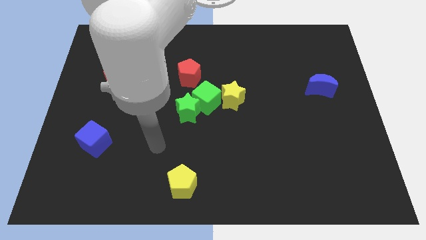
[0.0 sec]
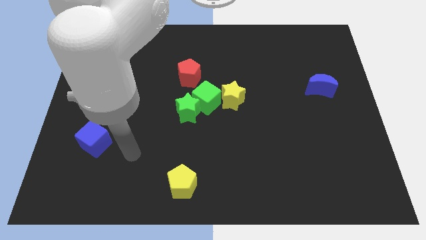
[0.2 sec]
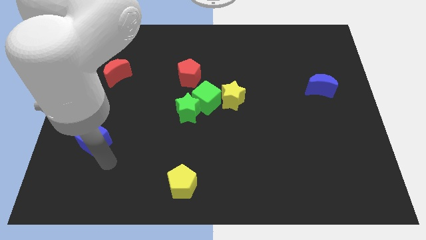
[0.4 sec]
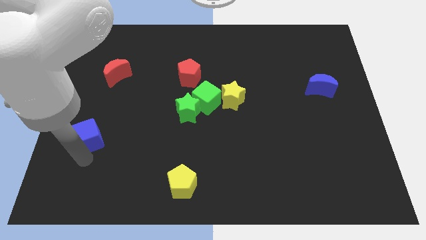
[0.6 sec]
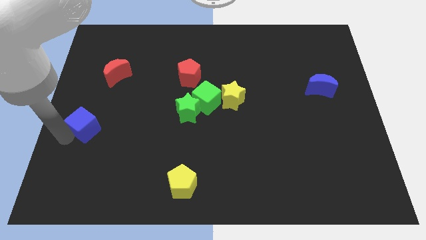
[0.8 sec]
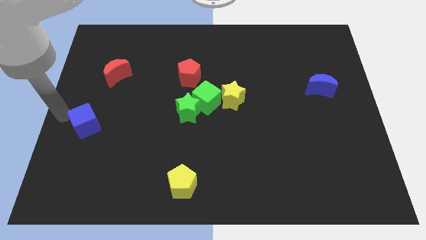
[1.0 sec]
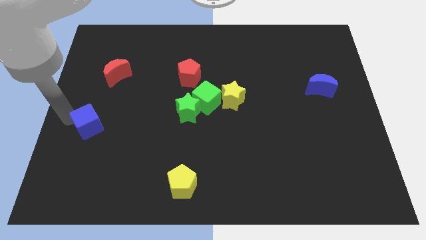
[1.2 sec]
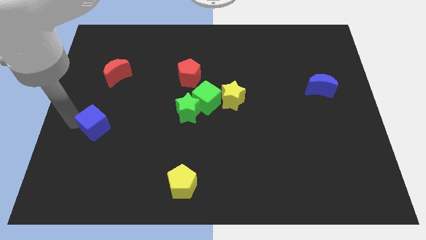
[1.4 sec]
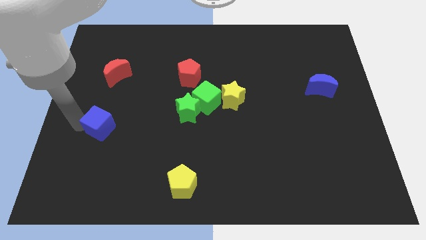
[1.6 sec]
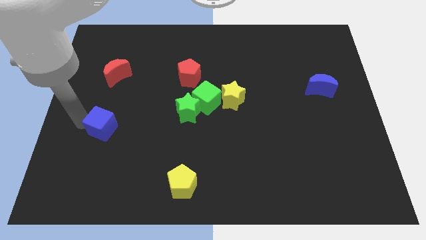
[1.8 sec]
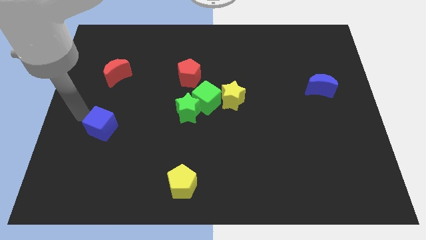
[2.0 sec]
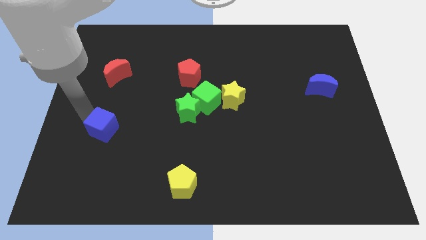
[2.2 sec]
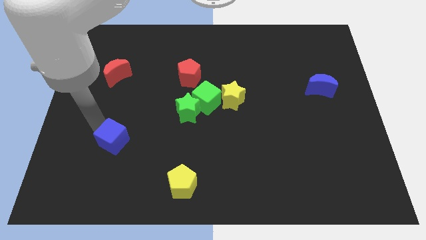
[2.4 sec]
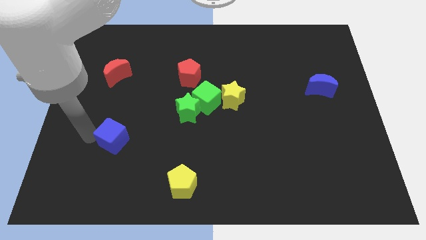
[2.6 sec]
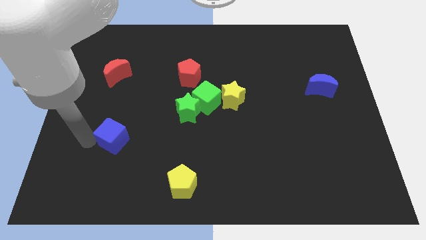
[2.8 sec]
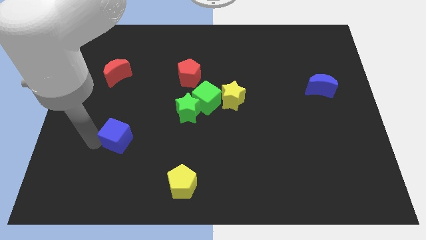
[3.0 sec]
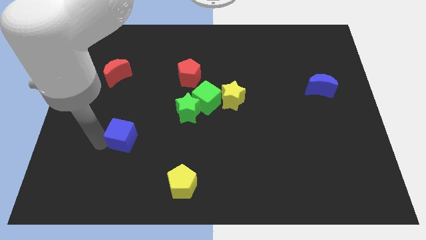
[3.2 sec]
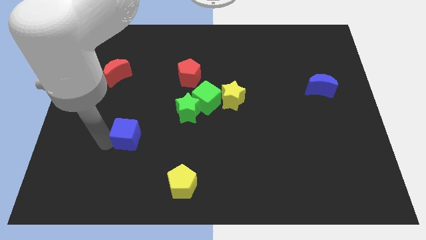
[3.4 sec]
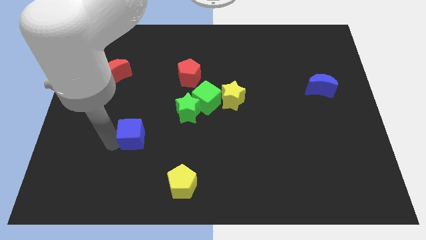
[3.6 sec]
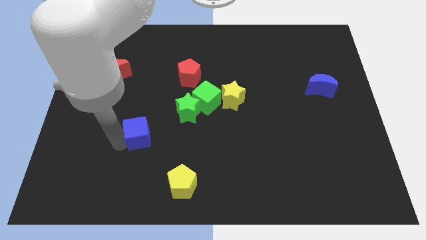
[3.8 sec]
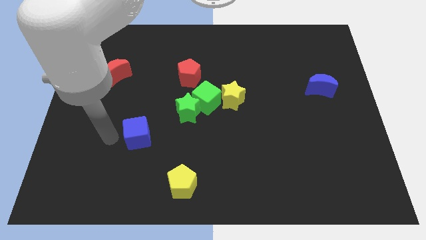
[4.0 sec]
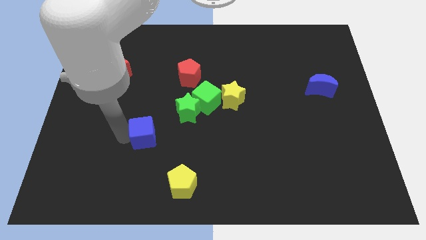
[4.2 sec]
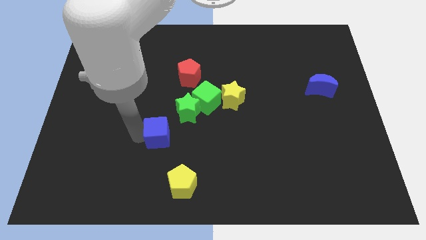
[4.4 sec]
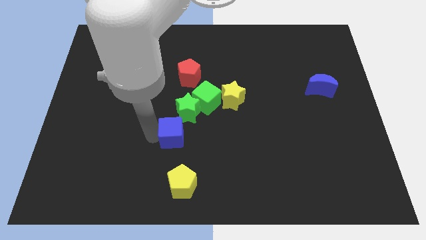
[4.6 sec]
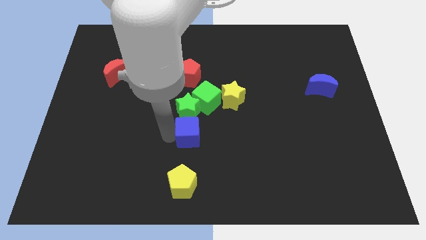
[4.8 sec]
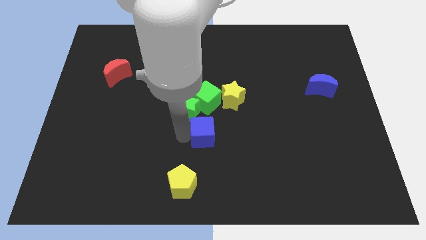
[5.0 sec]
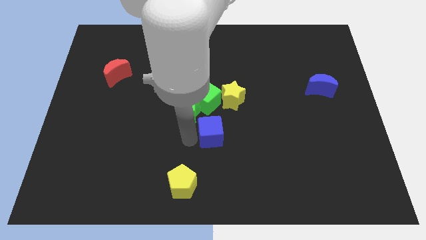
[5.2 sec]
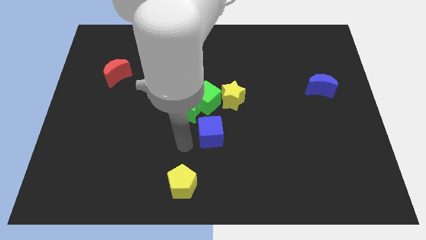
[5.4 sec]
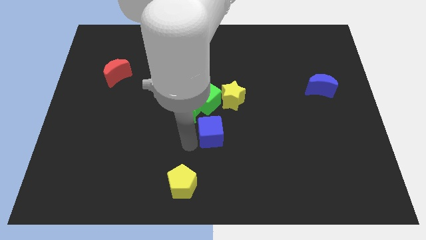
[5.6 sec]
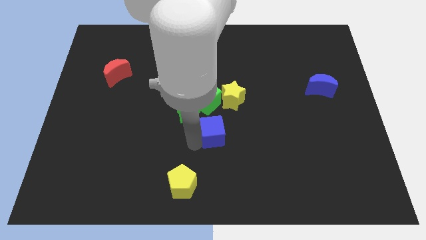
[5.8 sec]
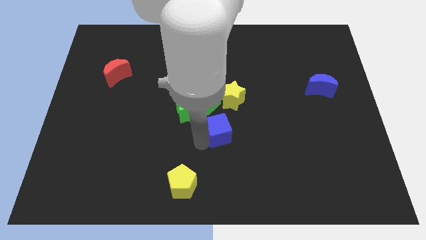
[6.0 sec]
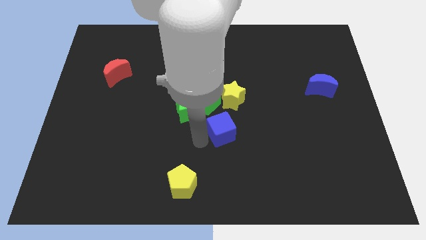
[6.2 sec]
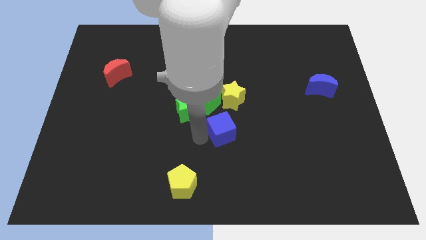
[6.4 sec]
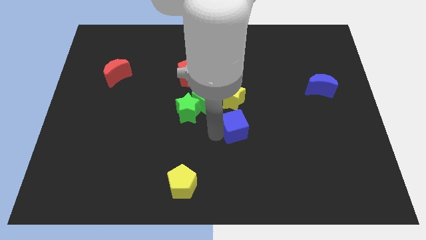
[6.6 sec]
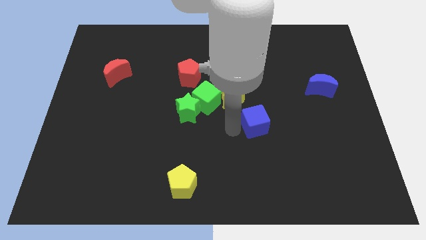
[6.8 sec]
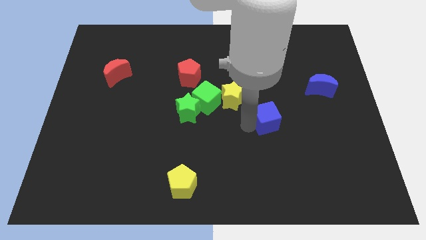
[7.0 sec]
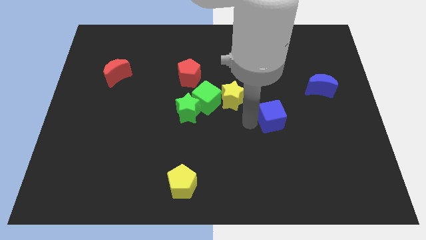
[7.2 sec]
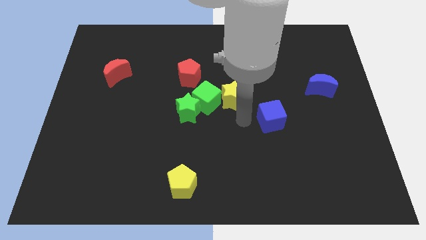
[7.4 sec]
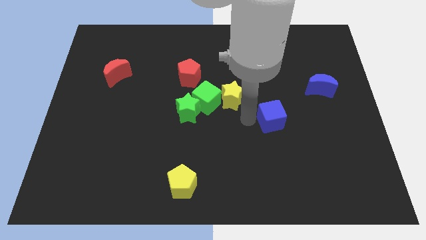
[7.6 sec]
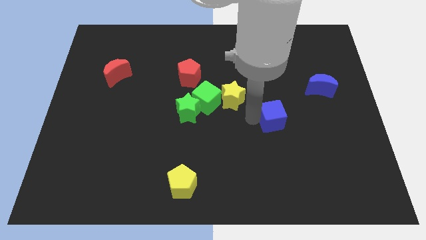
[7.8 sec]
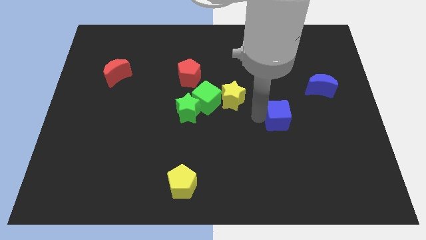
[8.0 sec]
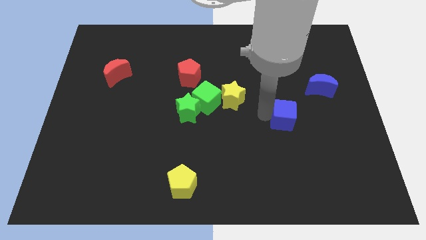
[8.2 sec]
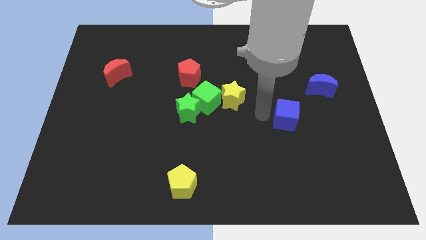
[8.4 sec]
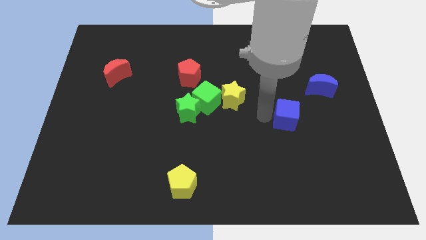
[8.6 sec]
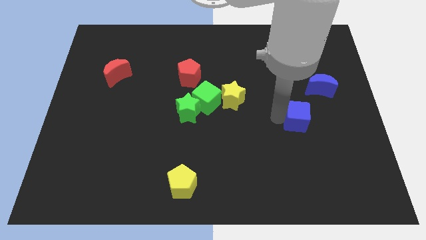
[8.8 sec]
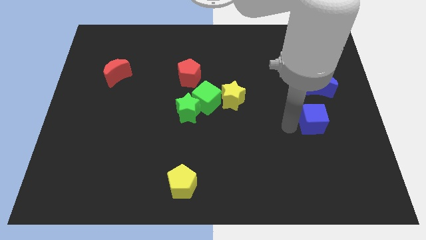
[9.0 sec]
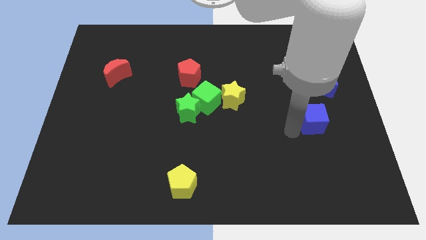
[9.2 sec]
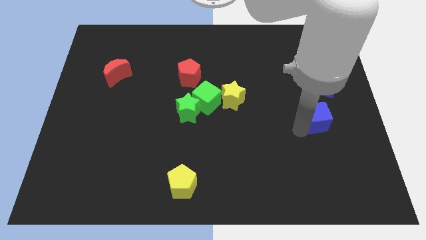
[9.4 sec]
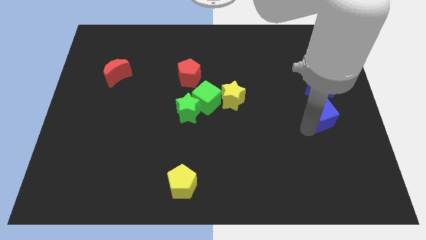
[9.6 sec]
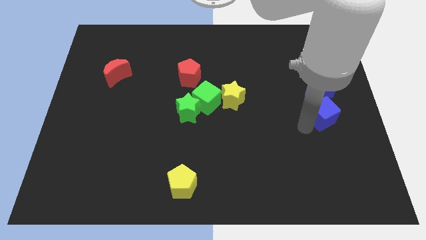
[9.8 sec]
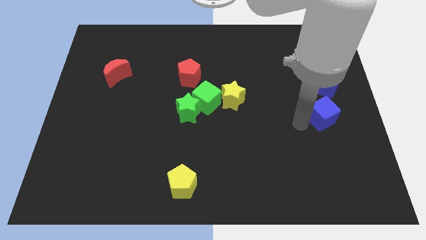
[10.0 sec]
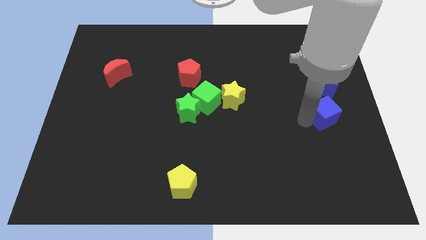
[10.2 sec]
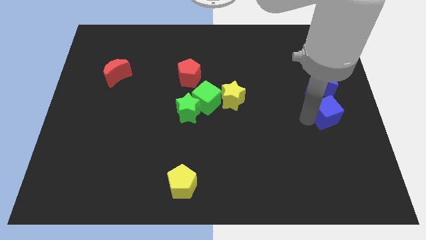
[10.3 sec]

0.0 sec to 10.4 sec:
put the blue cube to the right side of the board

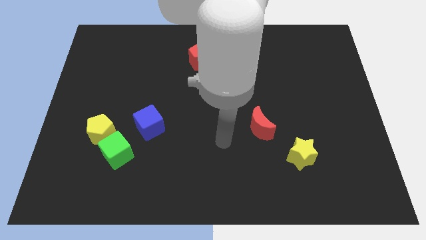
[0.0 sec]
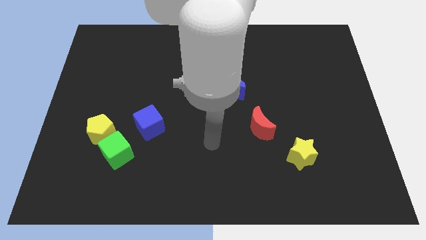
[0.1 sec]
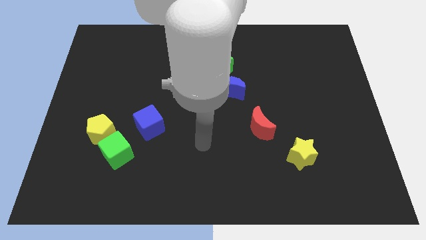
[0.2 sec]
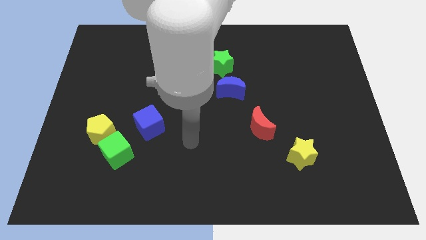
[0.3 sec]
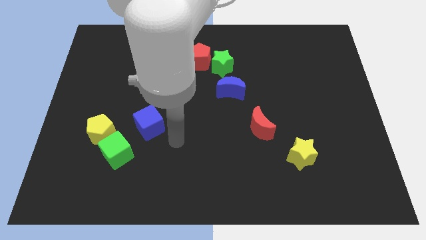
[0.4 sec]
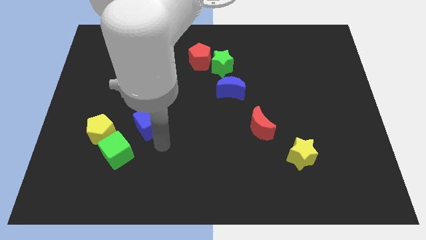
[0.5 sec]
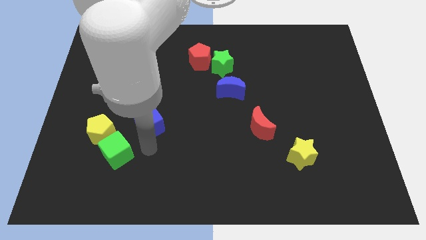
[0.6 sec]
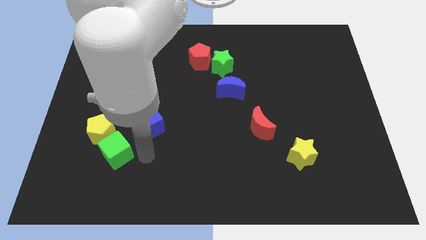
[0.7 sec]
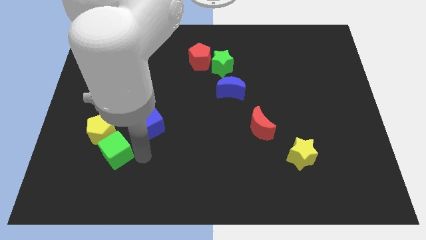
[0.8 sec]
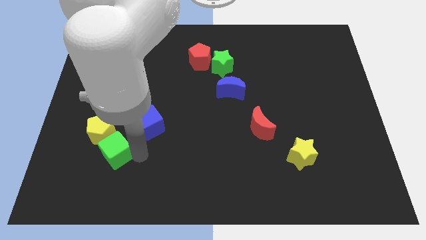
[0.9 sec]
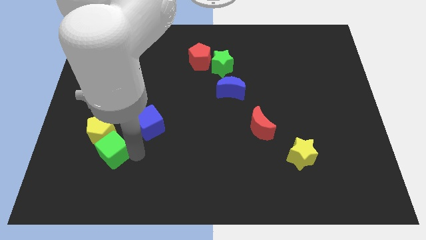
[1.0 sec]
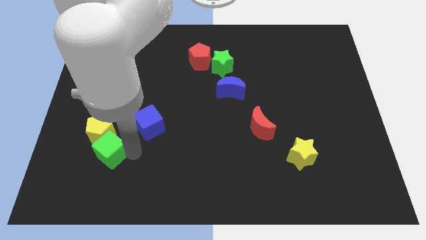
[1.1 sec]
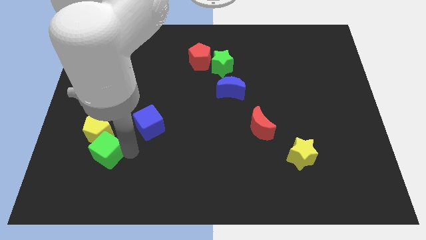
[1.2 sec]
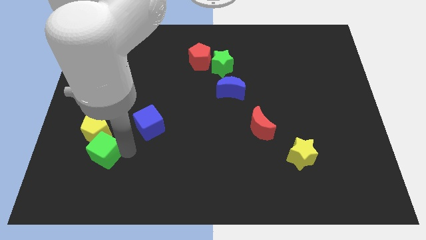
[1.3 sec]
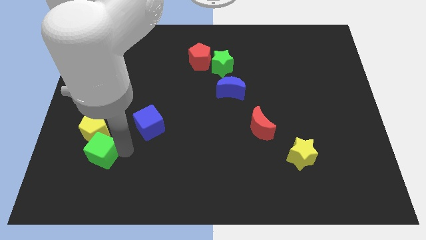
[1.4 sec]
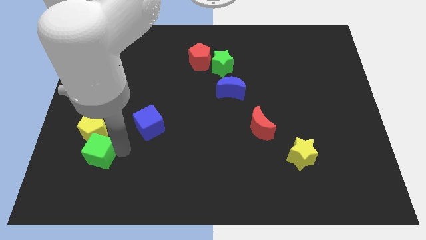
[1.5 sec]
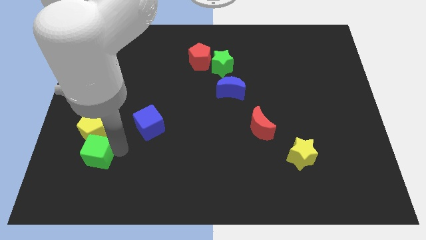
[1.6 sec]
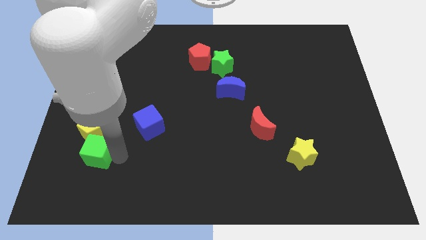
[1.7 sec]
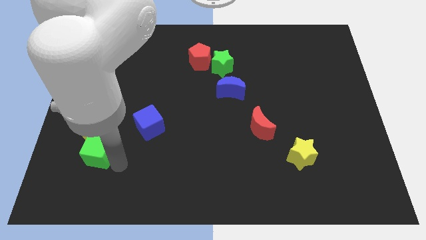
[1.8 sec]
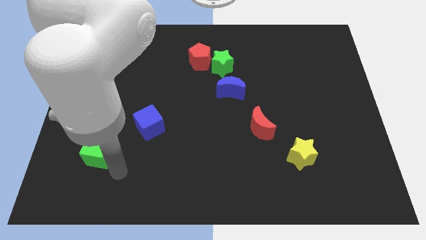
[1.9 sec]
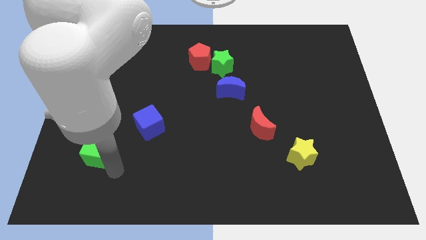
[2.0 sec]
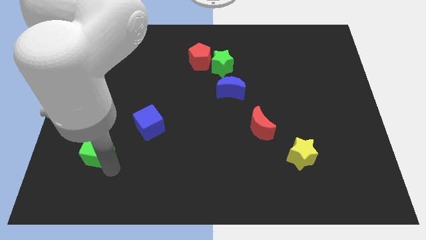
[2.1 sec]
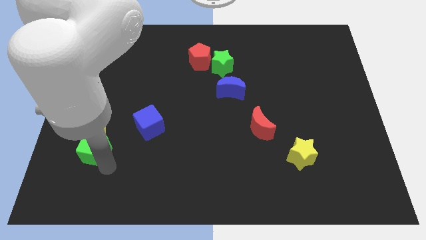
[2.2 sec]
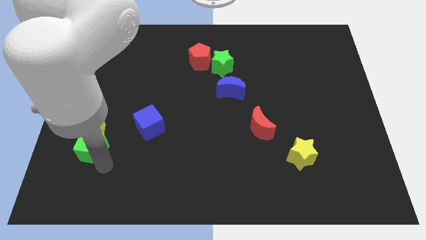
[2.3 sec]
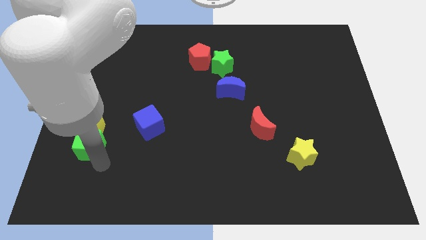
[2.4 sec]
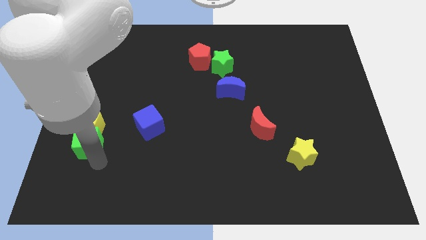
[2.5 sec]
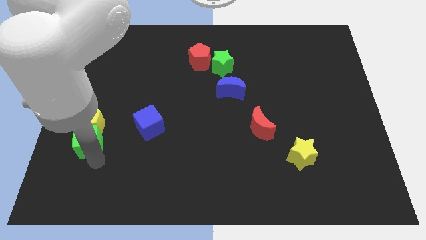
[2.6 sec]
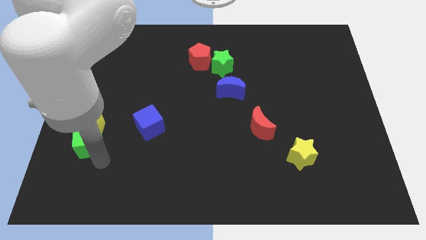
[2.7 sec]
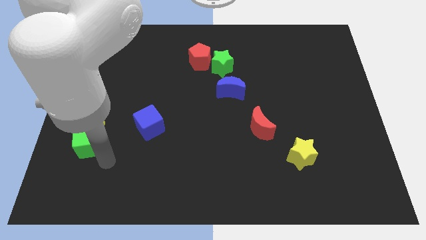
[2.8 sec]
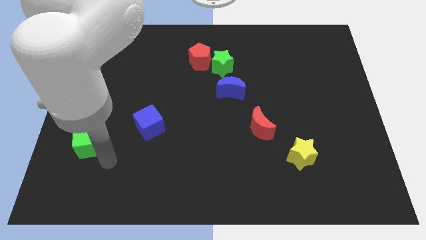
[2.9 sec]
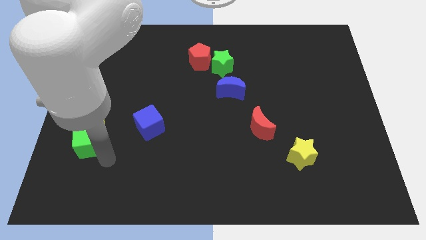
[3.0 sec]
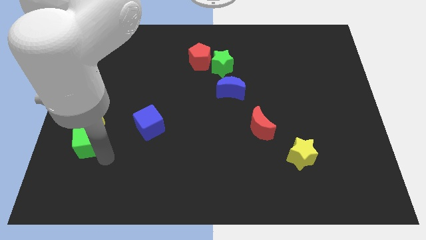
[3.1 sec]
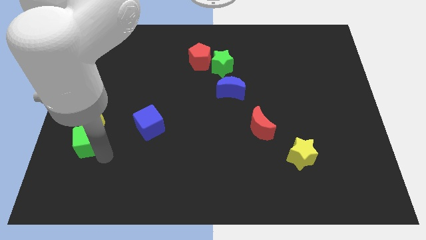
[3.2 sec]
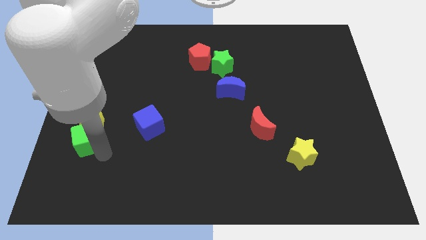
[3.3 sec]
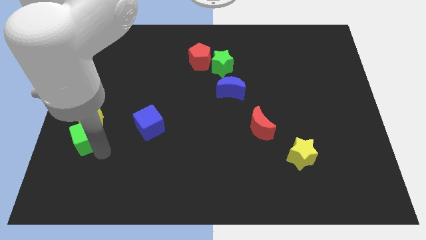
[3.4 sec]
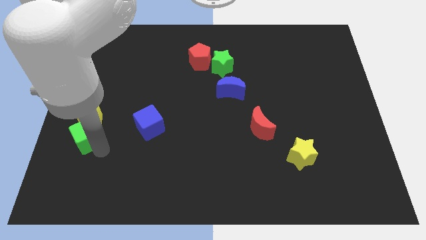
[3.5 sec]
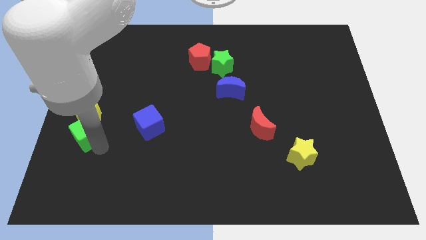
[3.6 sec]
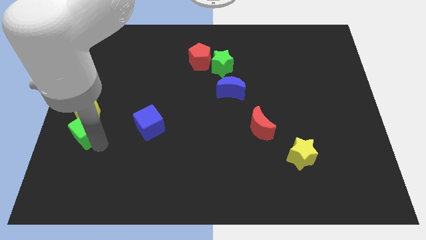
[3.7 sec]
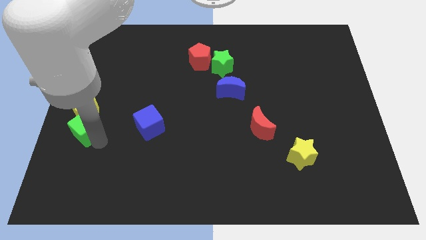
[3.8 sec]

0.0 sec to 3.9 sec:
push the green cube to the center left
